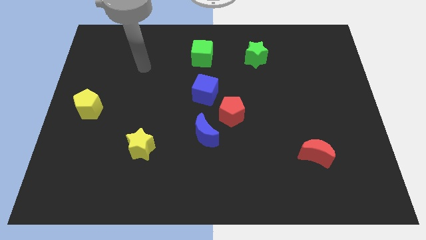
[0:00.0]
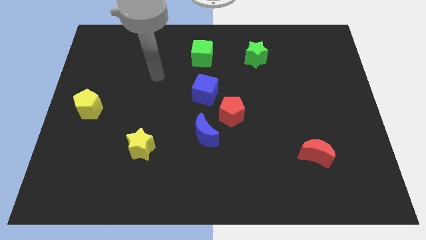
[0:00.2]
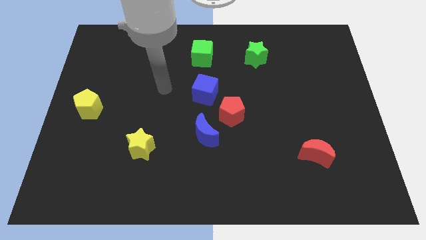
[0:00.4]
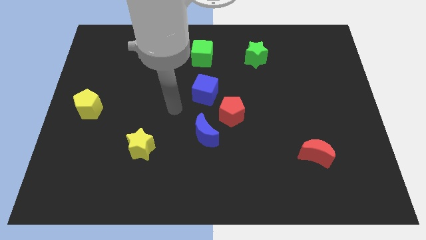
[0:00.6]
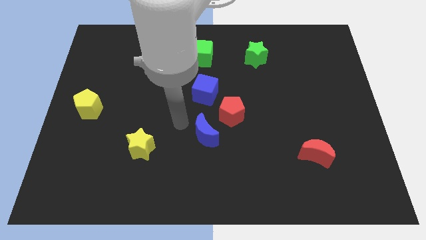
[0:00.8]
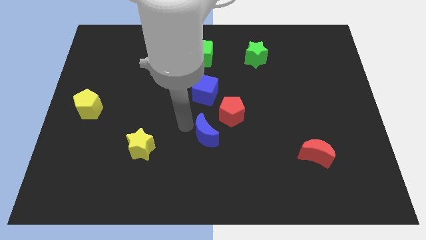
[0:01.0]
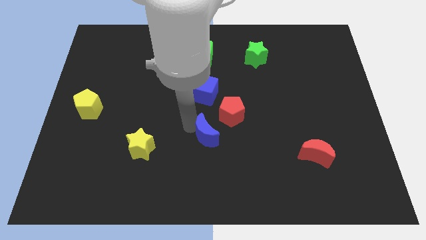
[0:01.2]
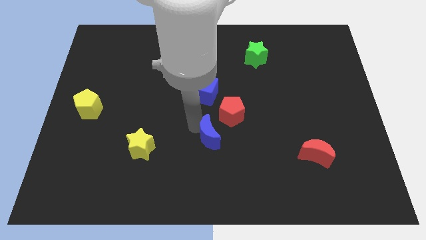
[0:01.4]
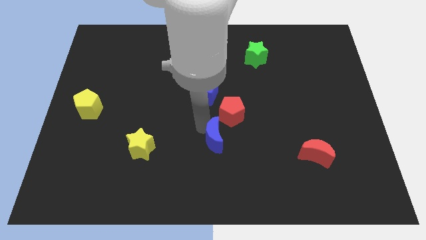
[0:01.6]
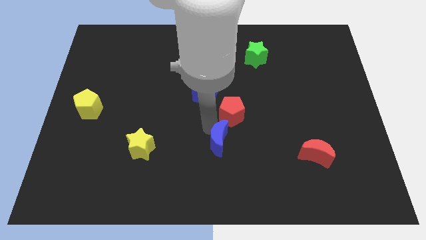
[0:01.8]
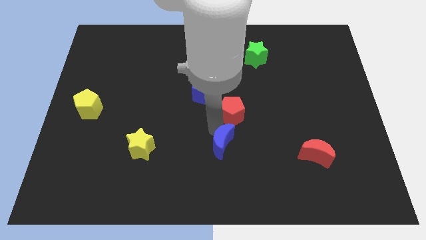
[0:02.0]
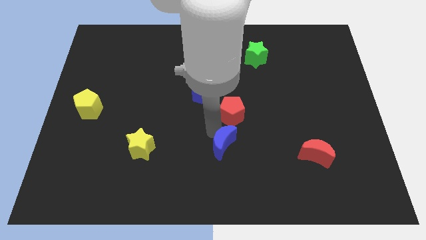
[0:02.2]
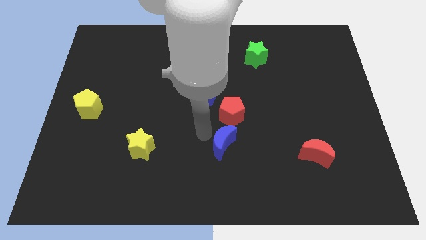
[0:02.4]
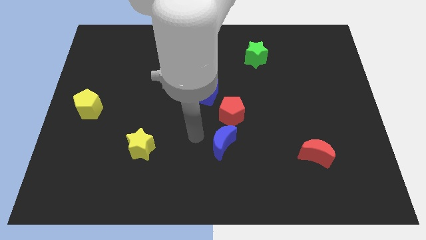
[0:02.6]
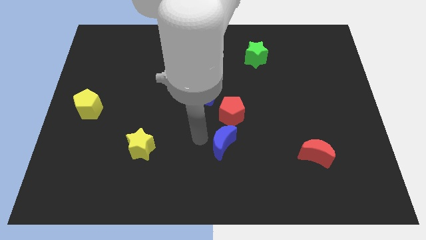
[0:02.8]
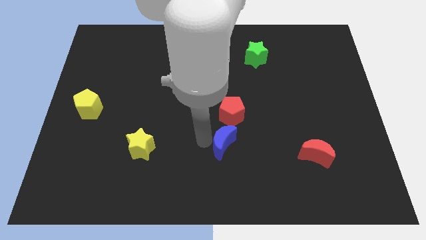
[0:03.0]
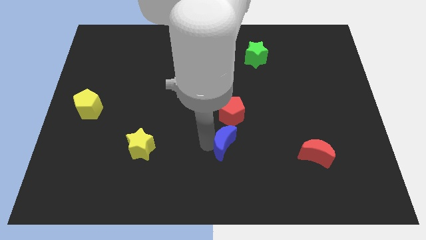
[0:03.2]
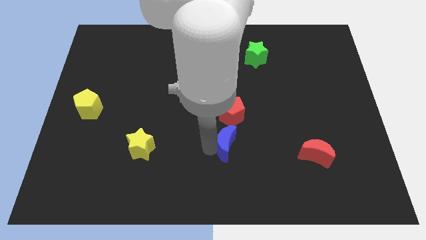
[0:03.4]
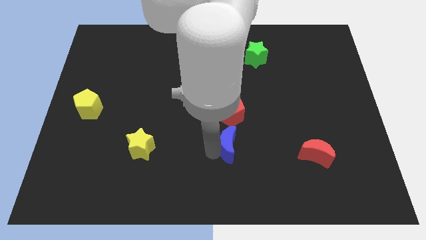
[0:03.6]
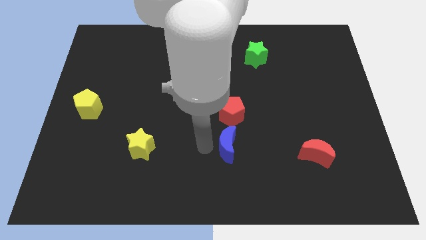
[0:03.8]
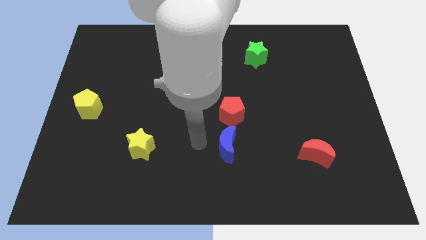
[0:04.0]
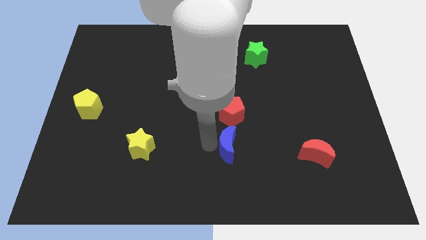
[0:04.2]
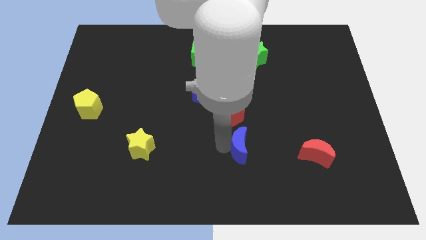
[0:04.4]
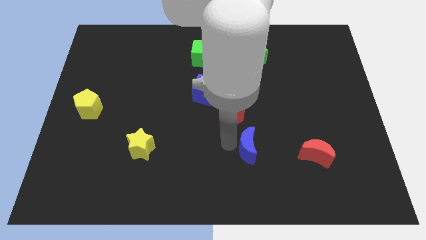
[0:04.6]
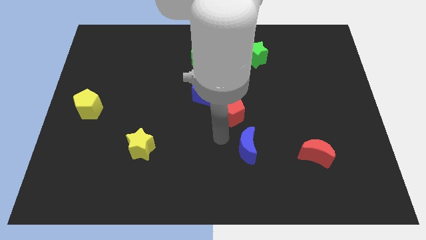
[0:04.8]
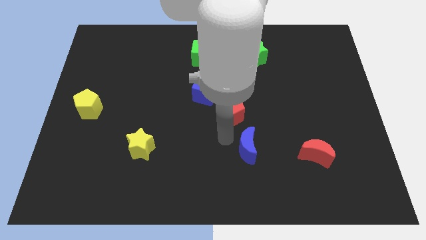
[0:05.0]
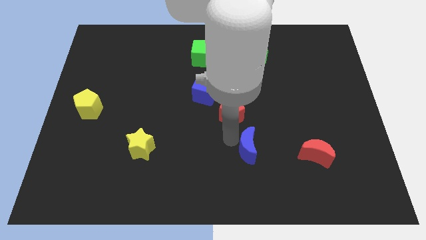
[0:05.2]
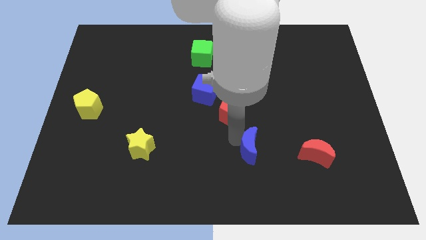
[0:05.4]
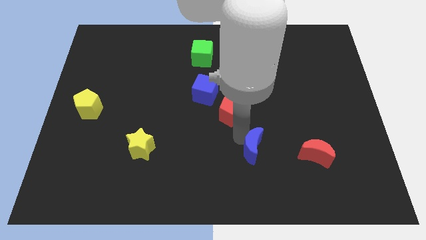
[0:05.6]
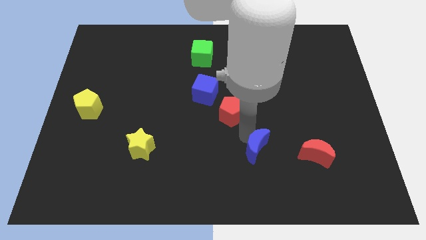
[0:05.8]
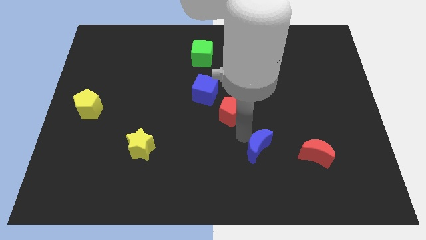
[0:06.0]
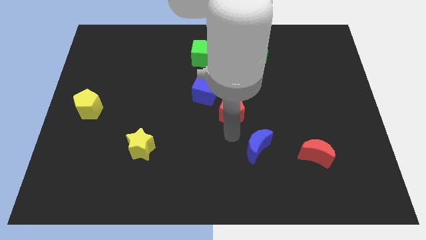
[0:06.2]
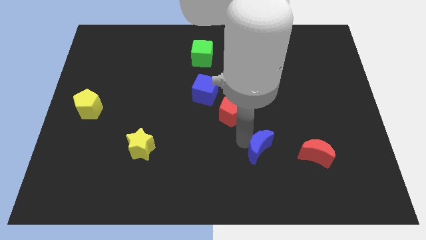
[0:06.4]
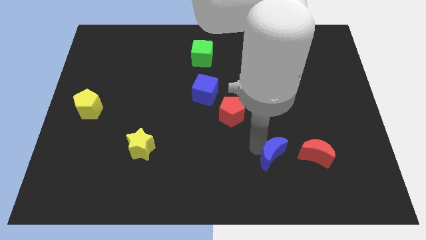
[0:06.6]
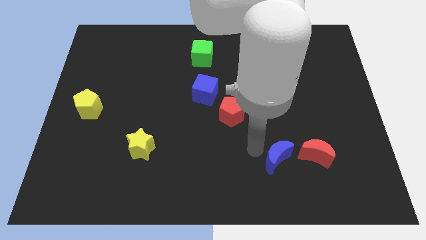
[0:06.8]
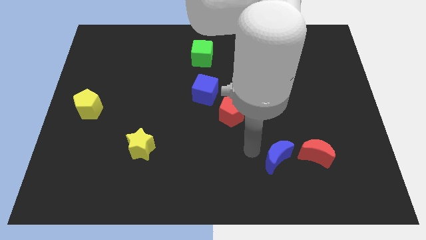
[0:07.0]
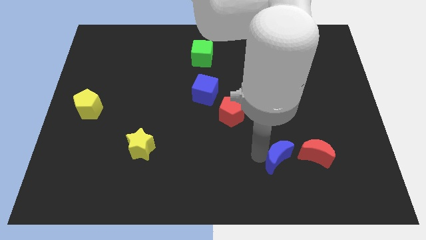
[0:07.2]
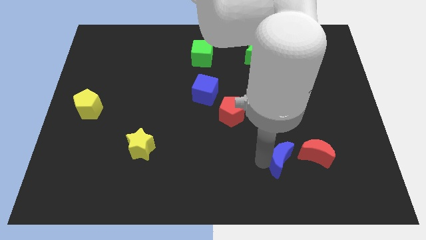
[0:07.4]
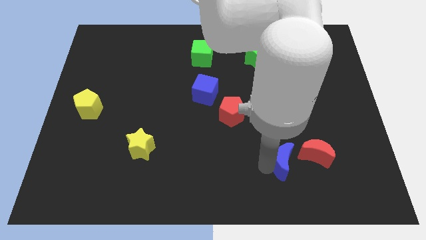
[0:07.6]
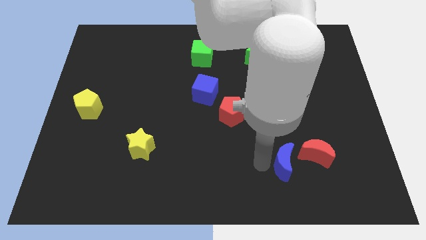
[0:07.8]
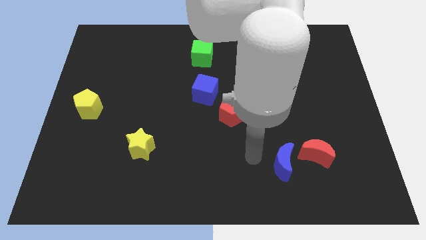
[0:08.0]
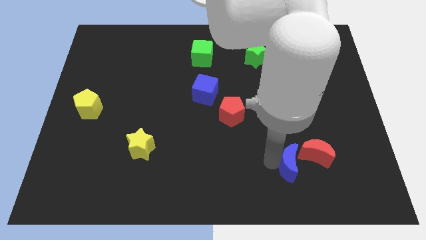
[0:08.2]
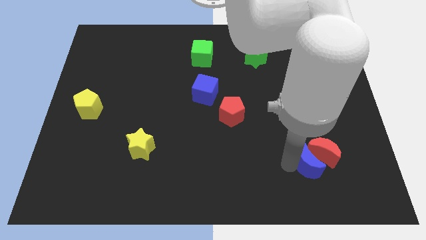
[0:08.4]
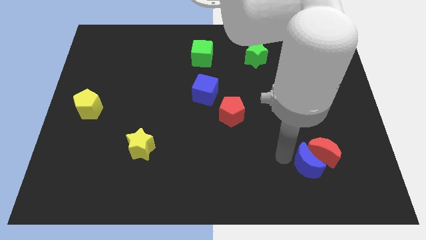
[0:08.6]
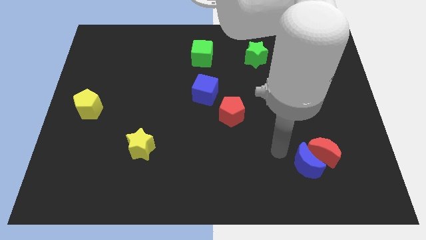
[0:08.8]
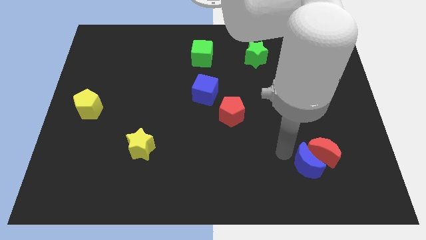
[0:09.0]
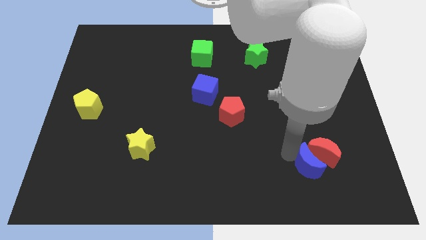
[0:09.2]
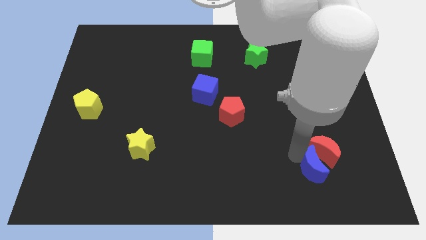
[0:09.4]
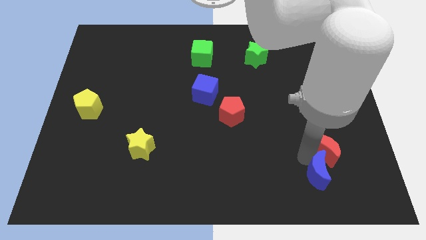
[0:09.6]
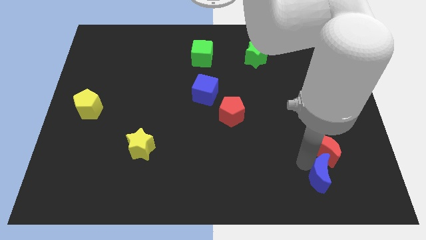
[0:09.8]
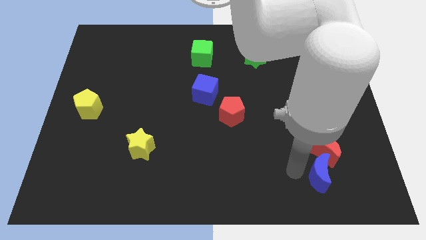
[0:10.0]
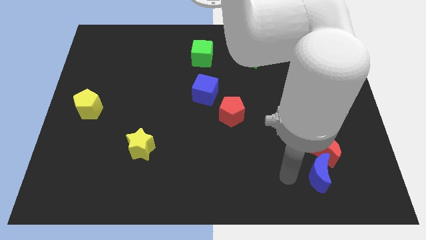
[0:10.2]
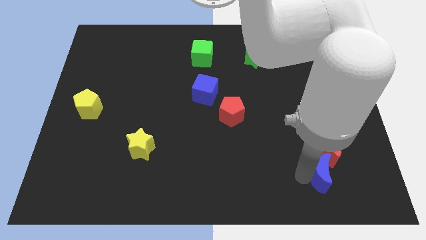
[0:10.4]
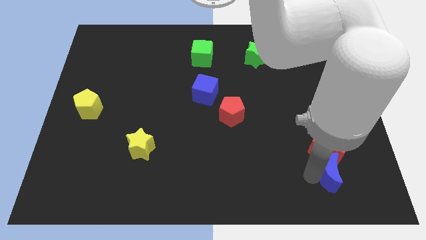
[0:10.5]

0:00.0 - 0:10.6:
slide the blue moon to the bottom right side of the red moon

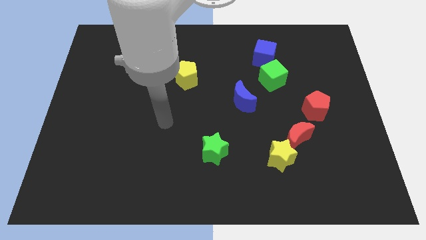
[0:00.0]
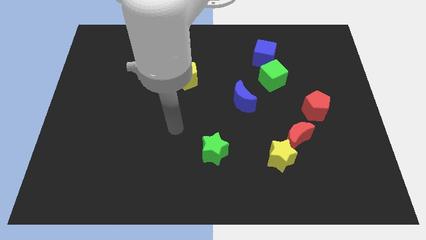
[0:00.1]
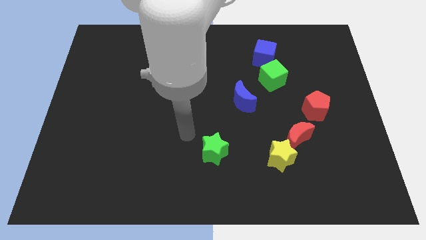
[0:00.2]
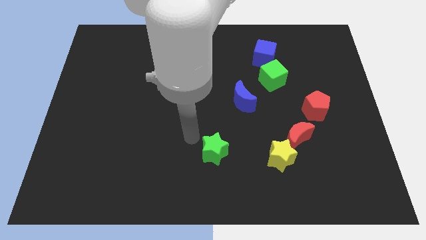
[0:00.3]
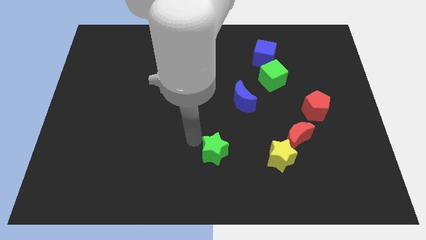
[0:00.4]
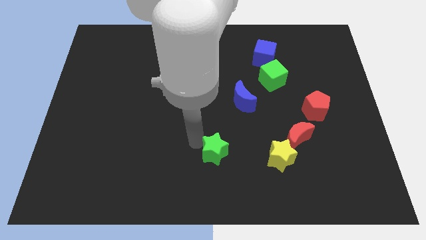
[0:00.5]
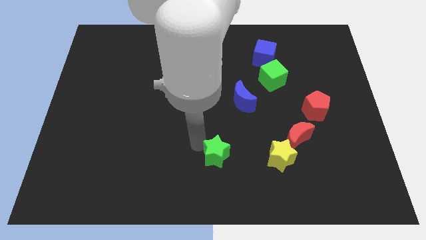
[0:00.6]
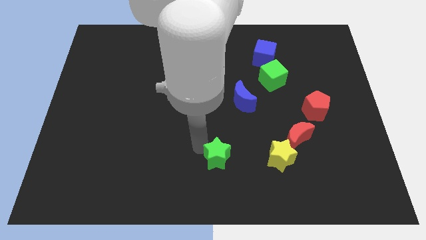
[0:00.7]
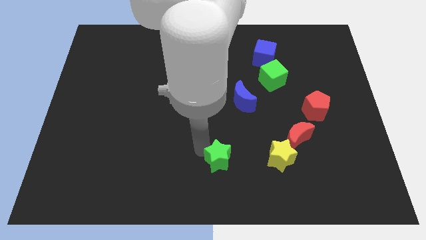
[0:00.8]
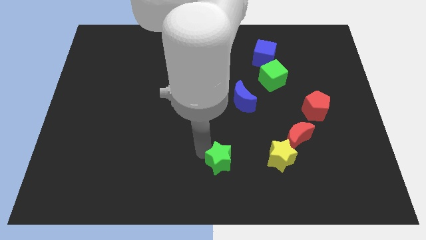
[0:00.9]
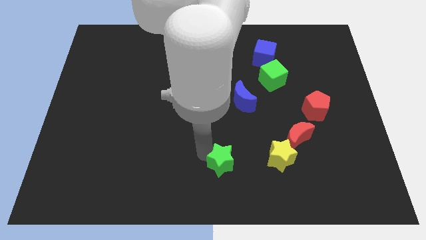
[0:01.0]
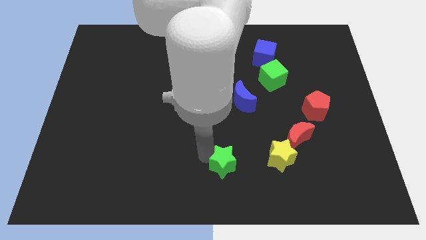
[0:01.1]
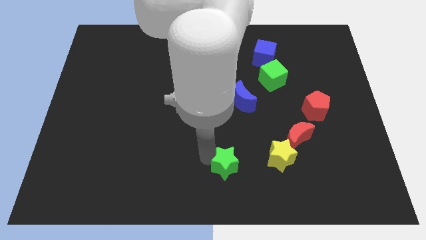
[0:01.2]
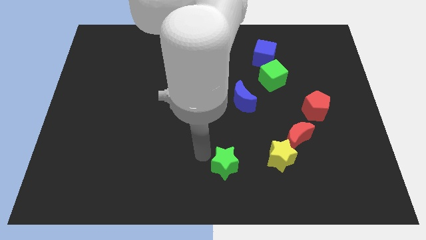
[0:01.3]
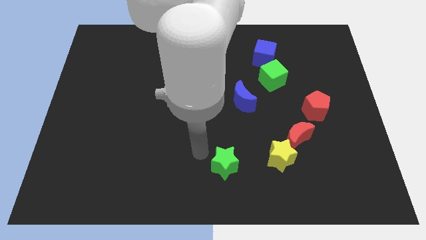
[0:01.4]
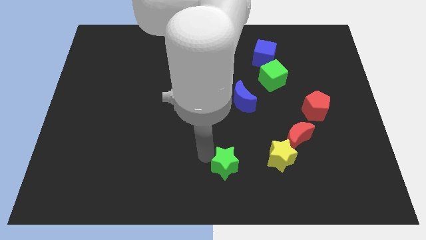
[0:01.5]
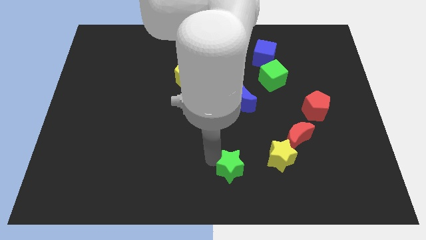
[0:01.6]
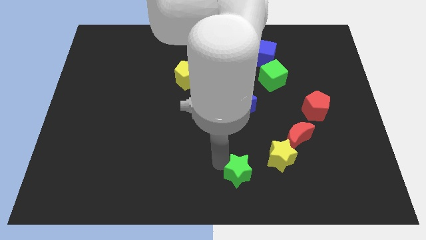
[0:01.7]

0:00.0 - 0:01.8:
put the green star to the bottom left of the yellow star
